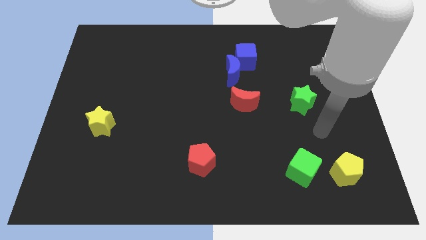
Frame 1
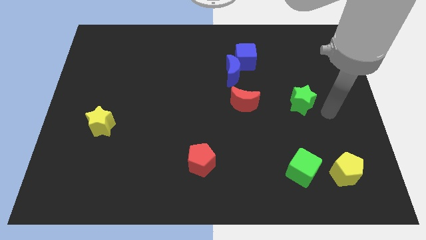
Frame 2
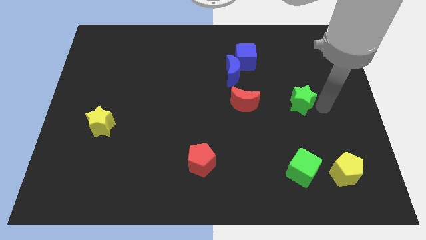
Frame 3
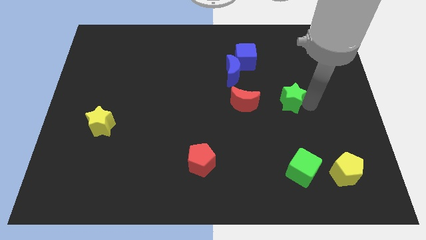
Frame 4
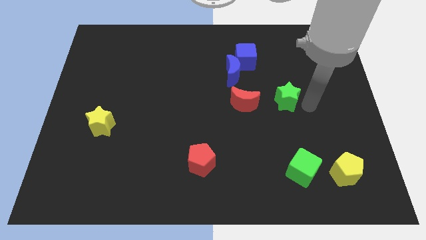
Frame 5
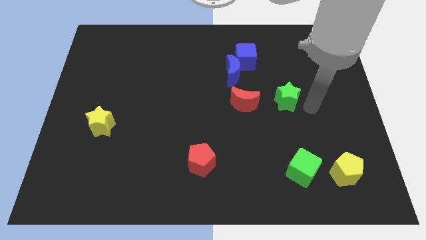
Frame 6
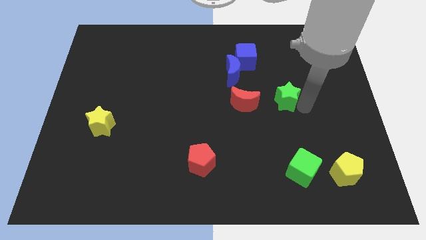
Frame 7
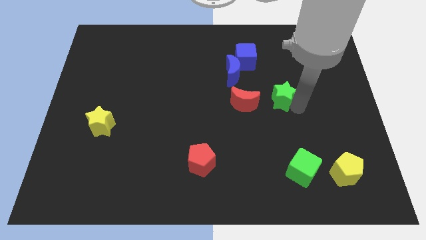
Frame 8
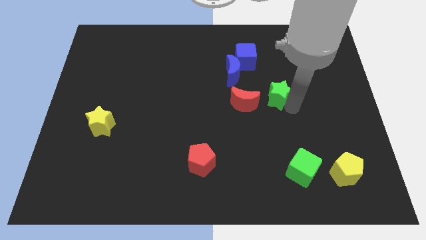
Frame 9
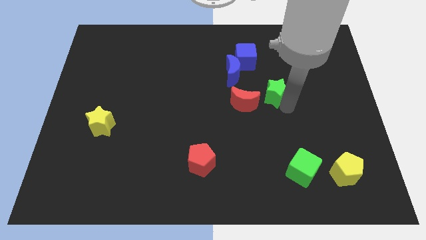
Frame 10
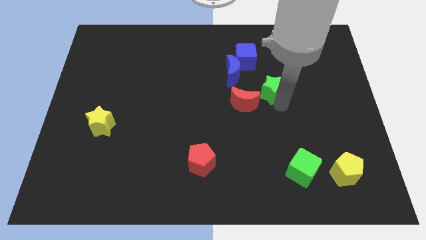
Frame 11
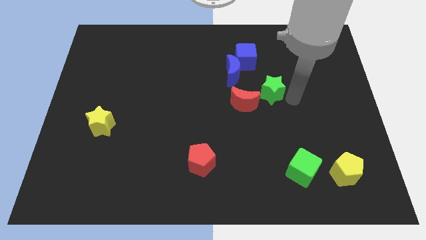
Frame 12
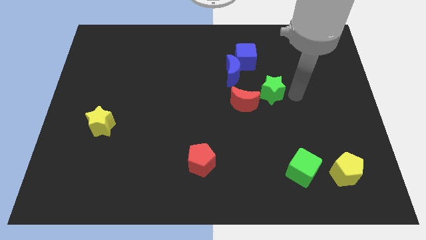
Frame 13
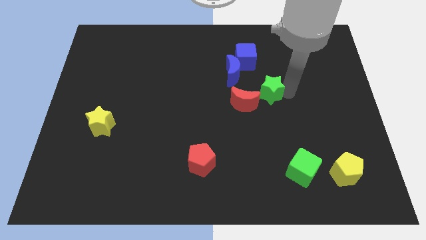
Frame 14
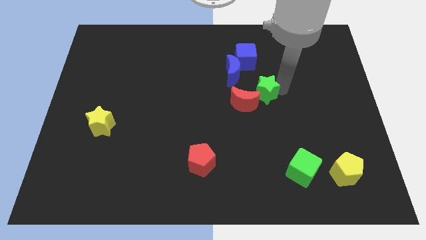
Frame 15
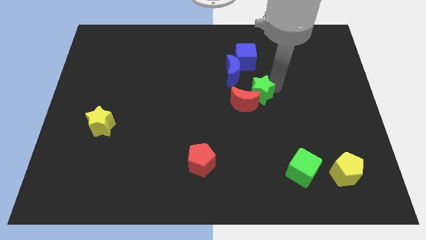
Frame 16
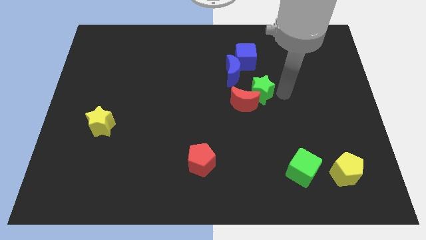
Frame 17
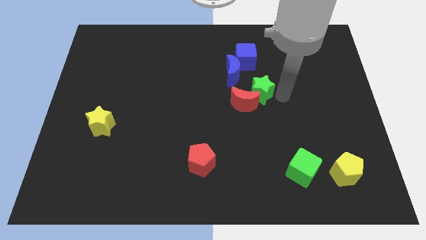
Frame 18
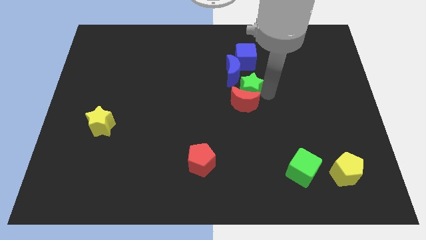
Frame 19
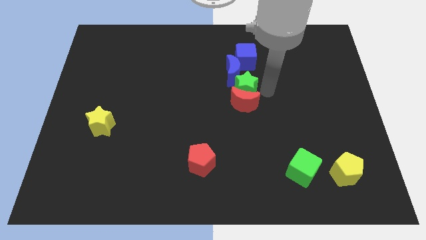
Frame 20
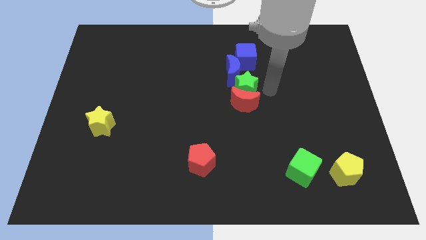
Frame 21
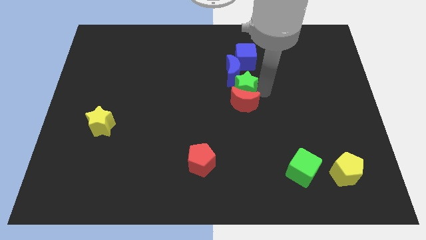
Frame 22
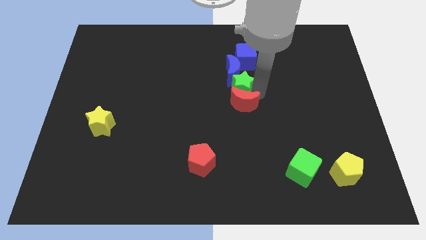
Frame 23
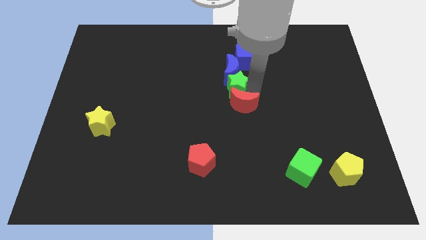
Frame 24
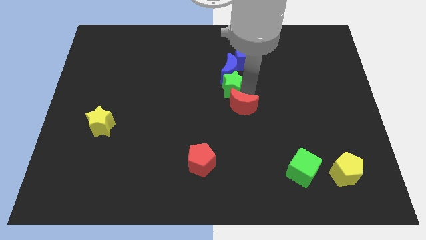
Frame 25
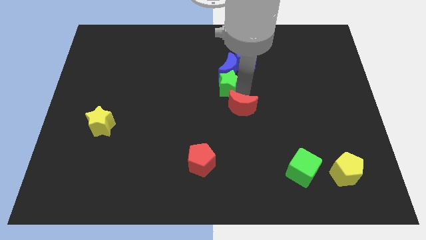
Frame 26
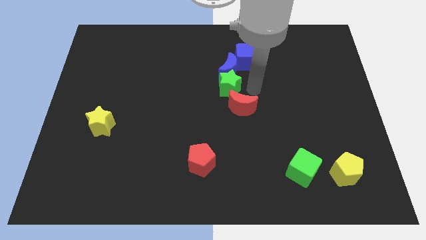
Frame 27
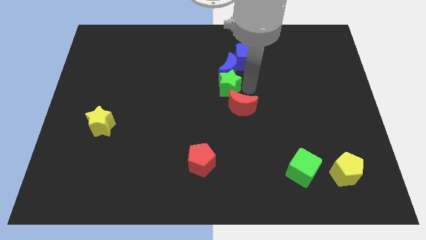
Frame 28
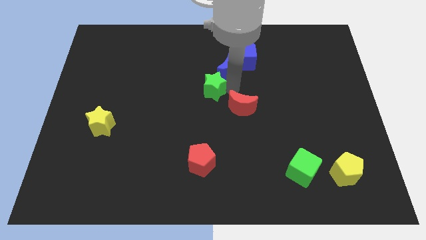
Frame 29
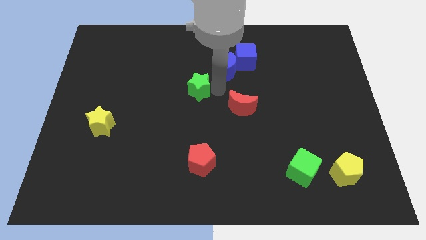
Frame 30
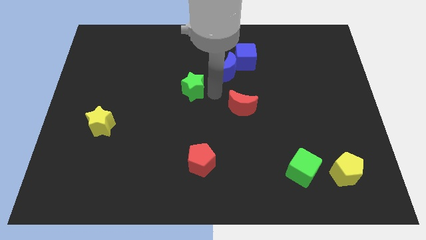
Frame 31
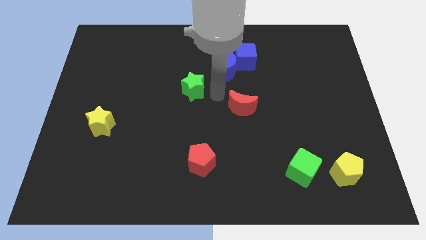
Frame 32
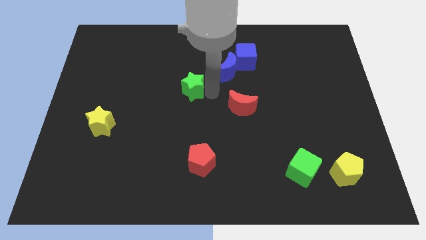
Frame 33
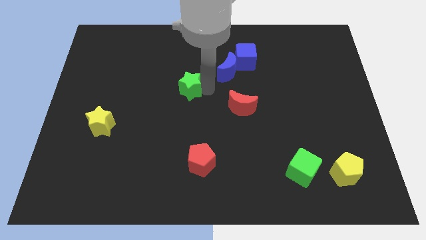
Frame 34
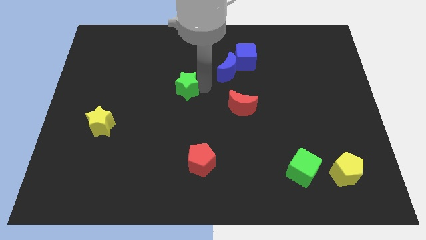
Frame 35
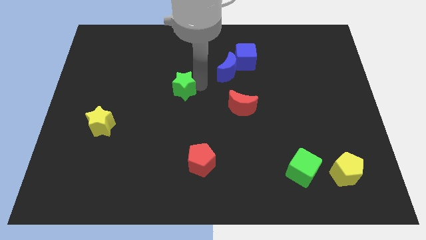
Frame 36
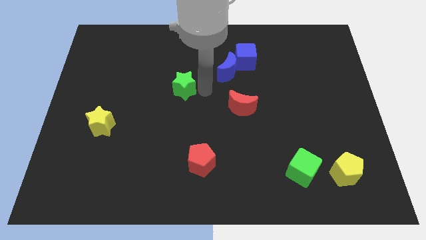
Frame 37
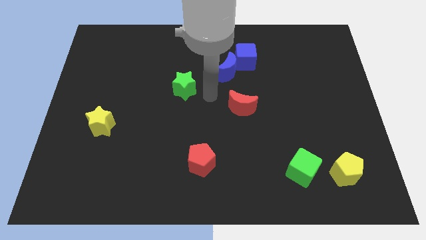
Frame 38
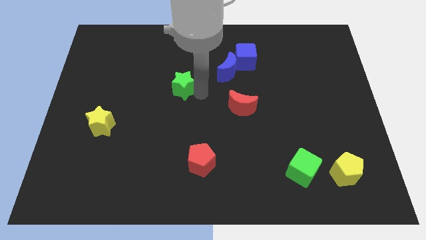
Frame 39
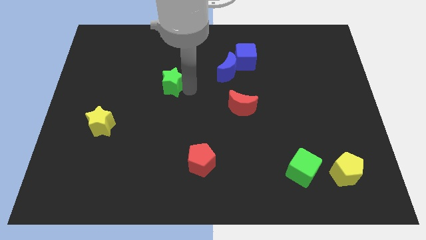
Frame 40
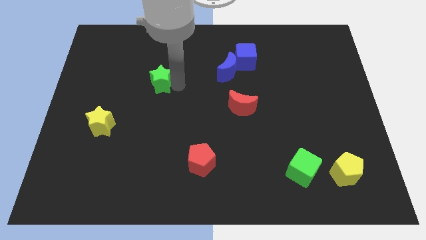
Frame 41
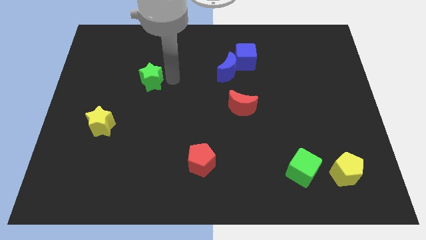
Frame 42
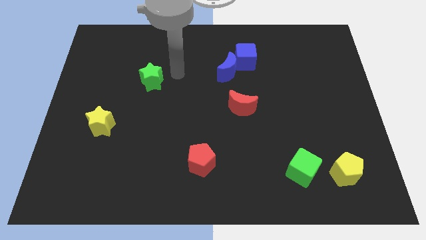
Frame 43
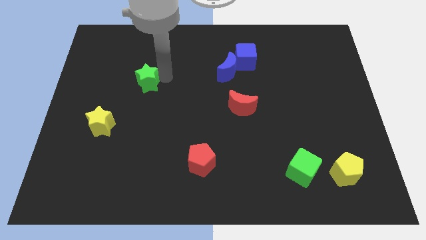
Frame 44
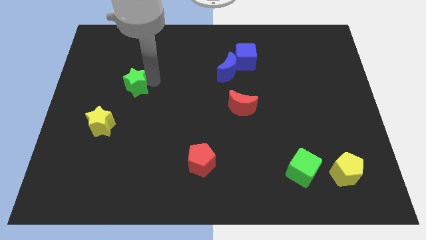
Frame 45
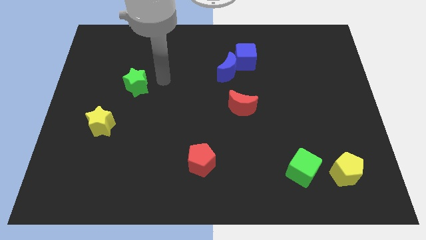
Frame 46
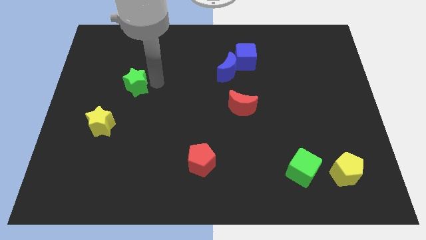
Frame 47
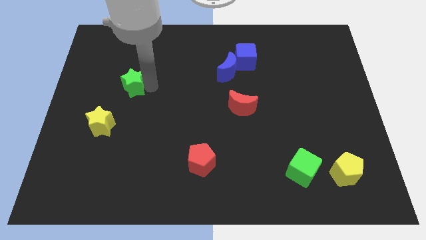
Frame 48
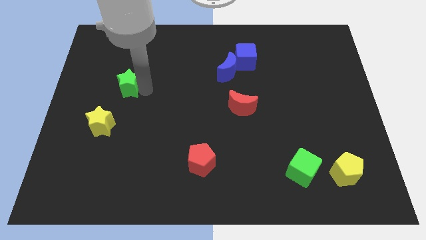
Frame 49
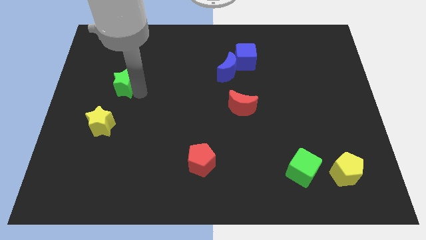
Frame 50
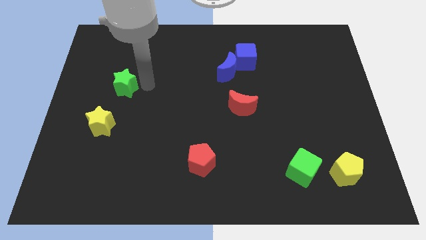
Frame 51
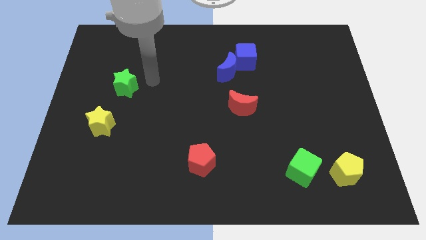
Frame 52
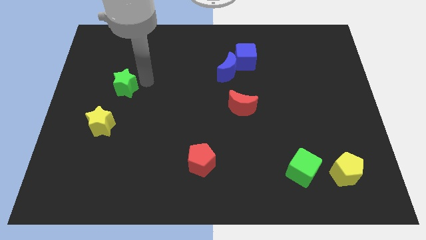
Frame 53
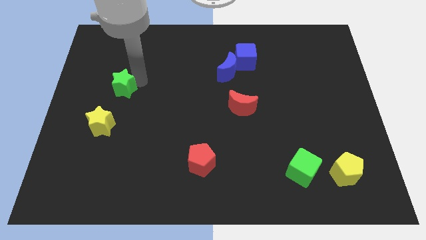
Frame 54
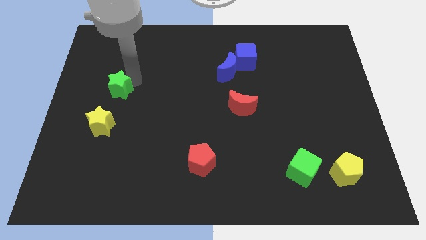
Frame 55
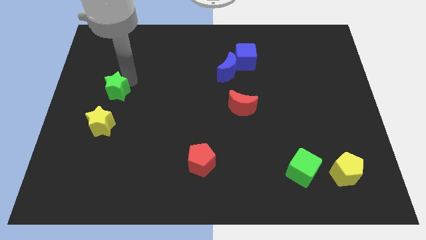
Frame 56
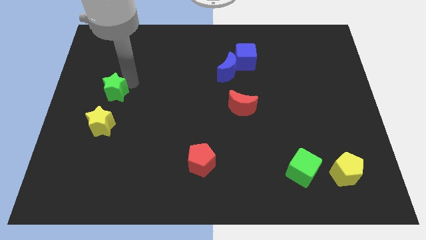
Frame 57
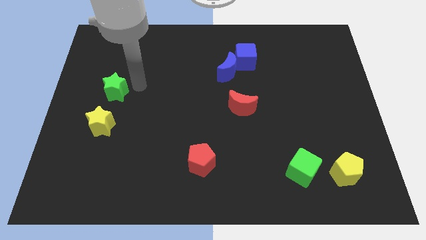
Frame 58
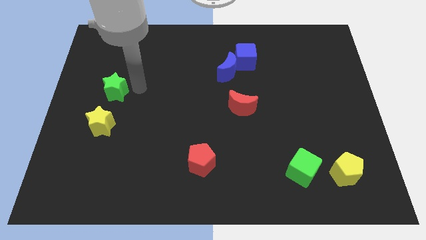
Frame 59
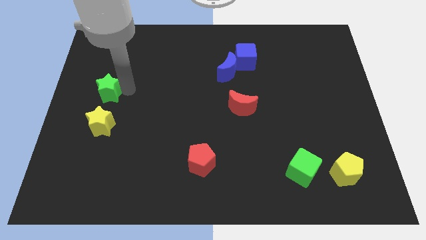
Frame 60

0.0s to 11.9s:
move the green star to the center left
